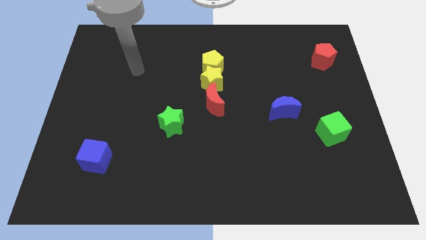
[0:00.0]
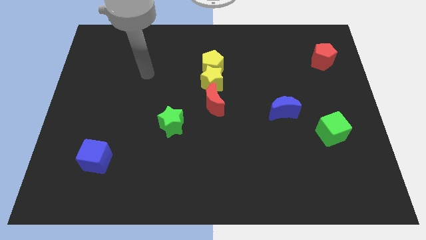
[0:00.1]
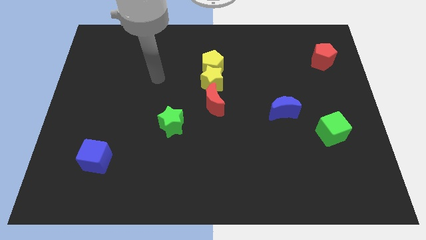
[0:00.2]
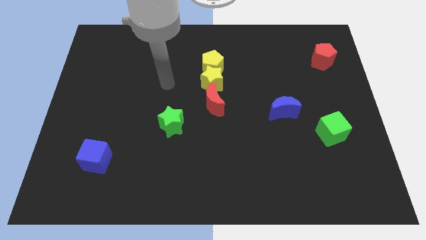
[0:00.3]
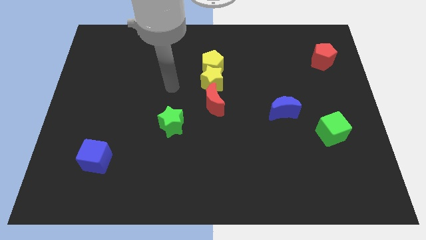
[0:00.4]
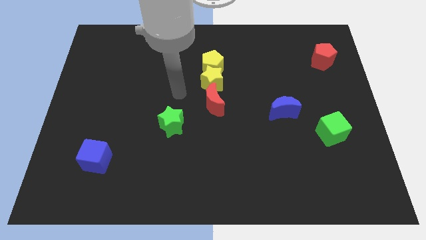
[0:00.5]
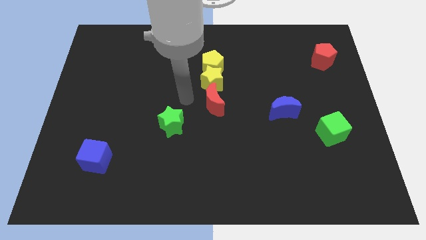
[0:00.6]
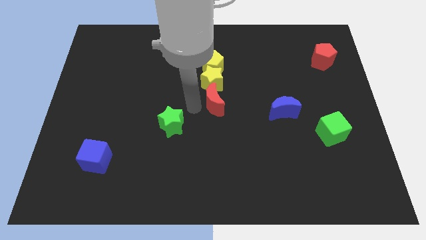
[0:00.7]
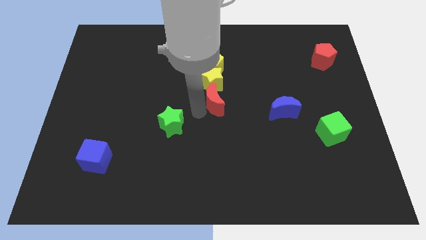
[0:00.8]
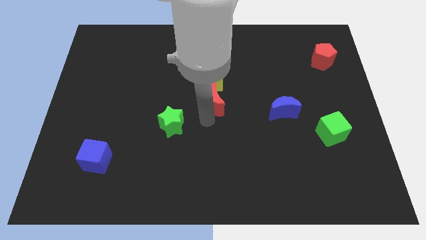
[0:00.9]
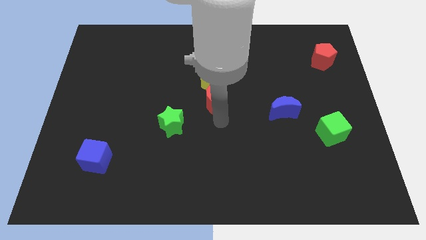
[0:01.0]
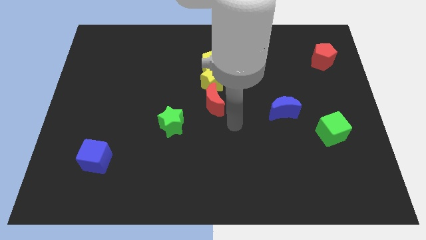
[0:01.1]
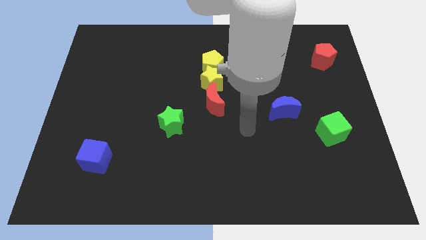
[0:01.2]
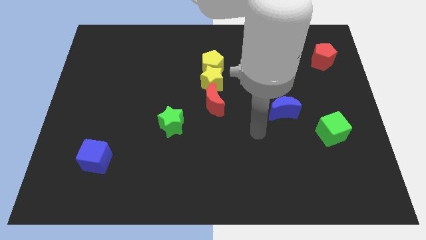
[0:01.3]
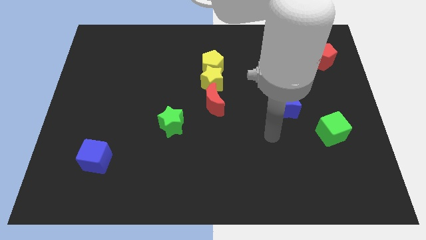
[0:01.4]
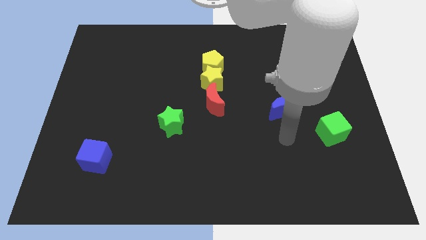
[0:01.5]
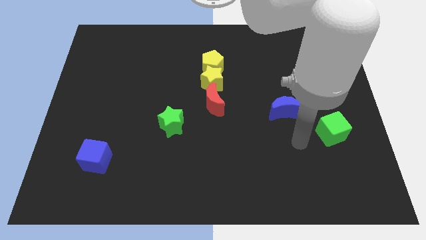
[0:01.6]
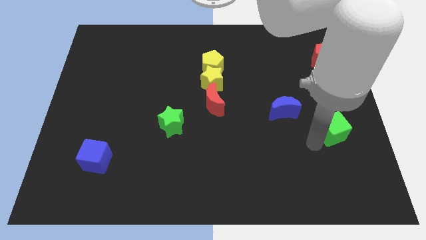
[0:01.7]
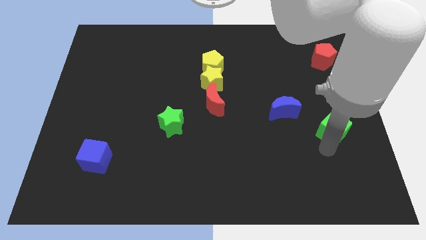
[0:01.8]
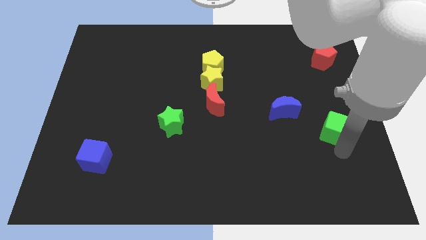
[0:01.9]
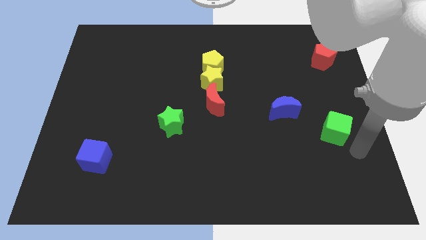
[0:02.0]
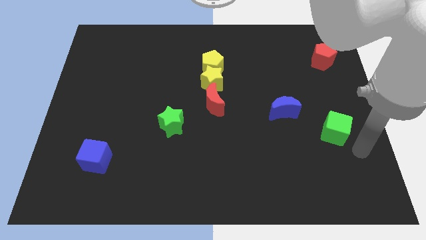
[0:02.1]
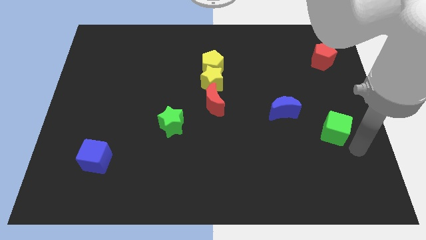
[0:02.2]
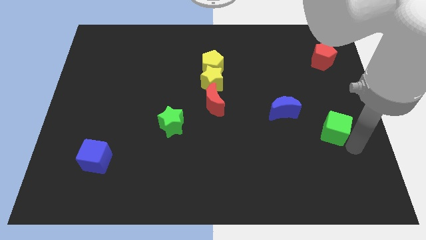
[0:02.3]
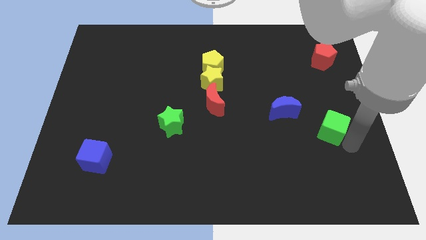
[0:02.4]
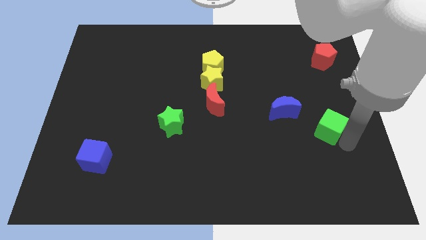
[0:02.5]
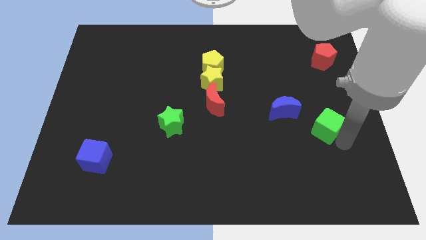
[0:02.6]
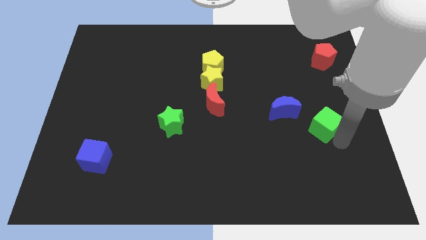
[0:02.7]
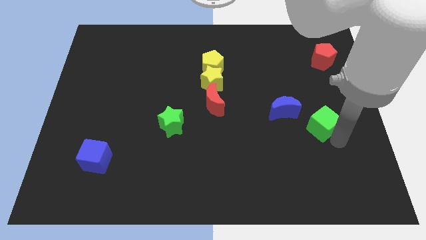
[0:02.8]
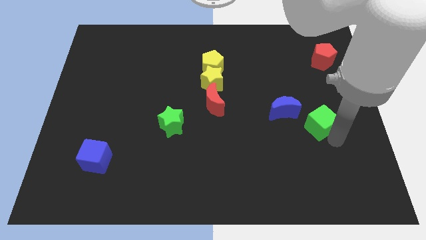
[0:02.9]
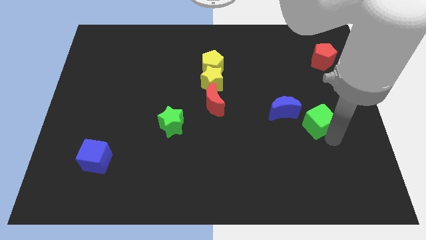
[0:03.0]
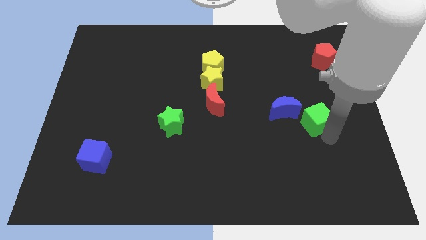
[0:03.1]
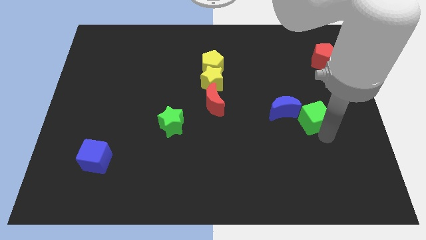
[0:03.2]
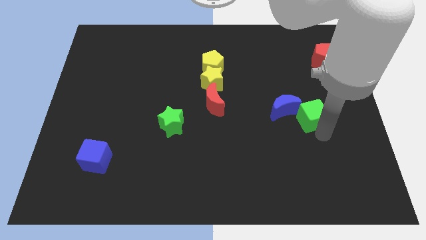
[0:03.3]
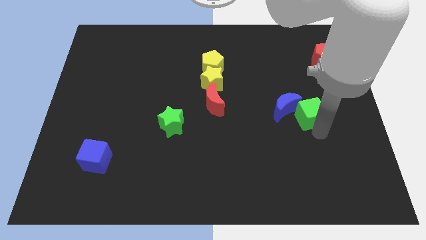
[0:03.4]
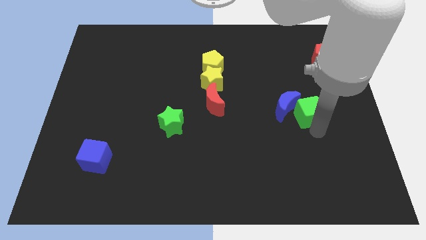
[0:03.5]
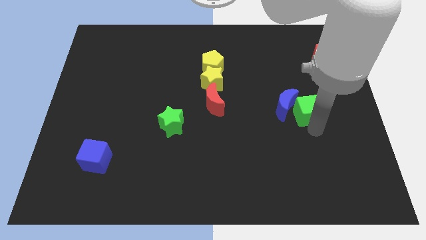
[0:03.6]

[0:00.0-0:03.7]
slightly move the green cube upwards and to the left

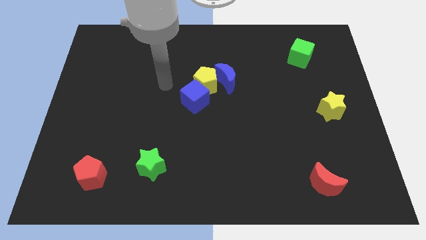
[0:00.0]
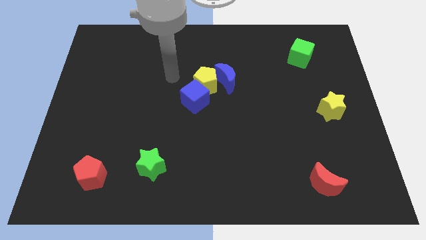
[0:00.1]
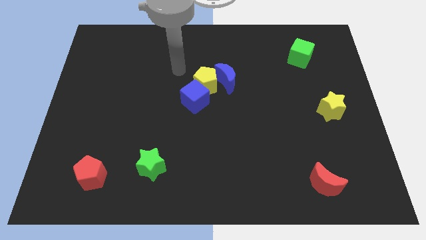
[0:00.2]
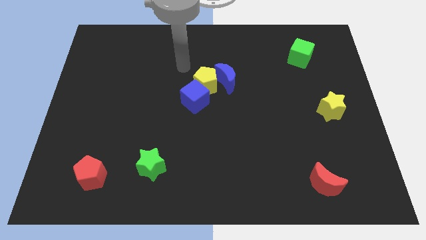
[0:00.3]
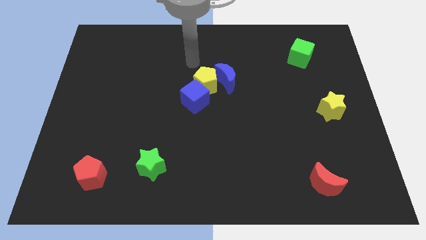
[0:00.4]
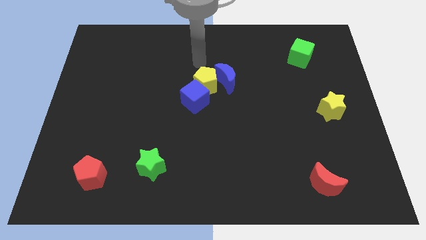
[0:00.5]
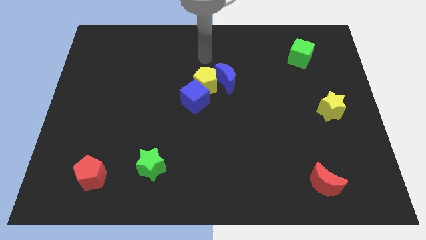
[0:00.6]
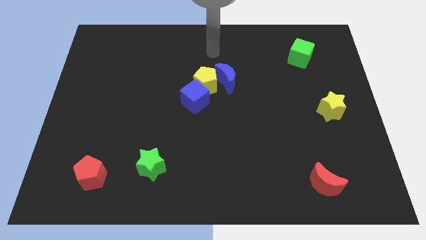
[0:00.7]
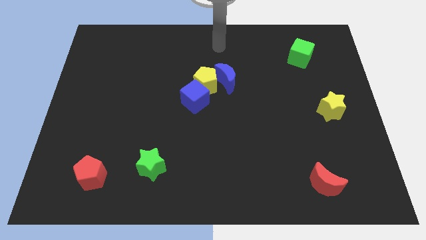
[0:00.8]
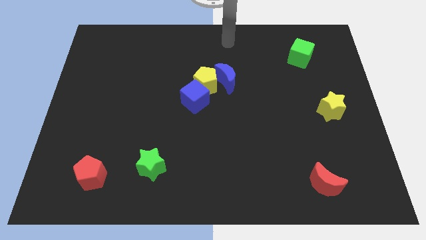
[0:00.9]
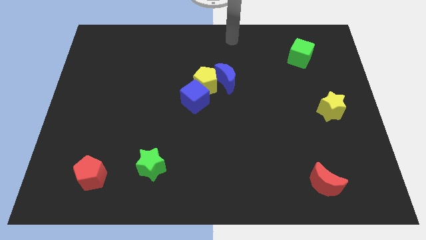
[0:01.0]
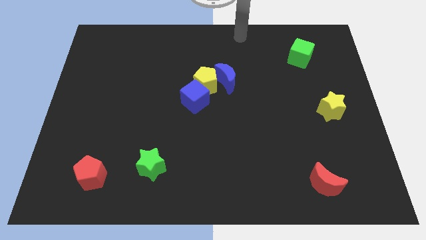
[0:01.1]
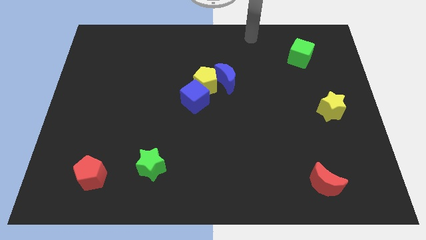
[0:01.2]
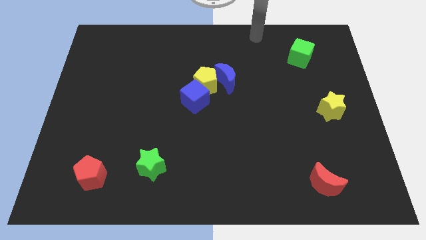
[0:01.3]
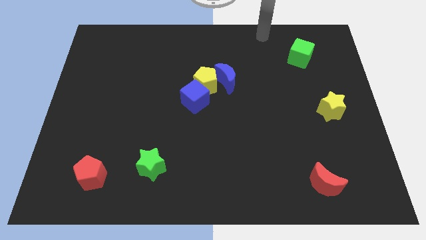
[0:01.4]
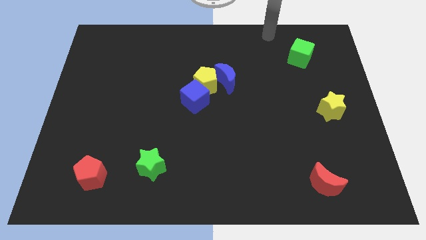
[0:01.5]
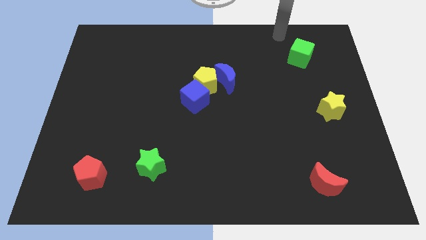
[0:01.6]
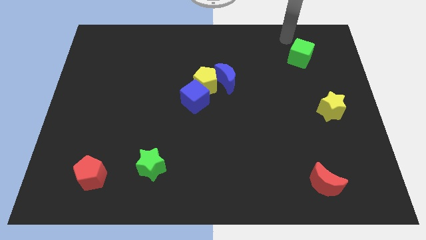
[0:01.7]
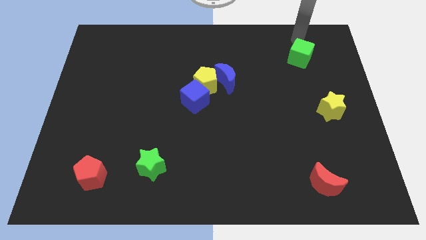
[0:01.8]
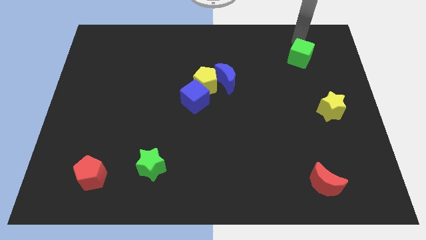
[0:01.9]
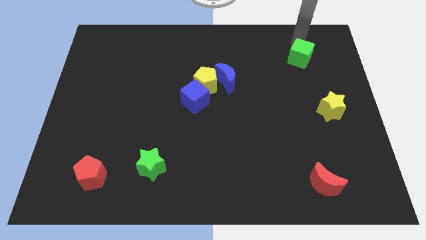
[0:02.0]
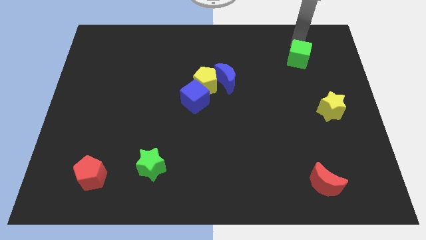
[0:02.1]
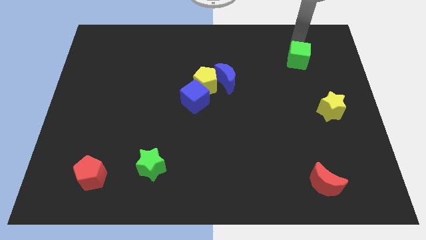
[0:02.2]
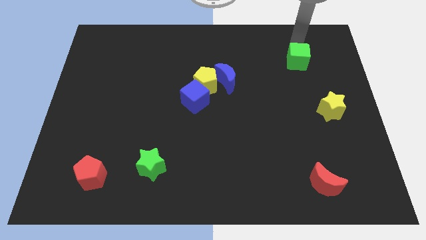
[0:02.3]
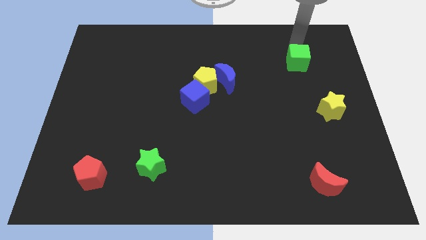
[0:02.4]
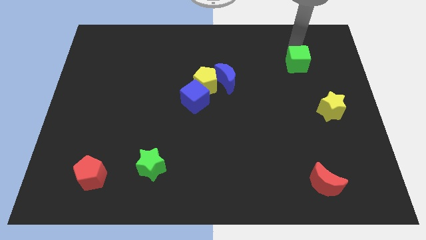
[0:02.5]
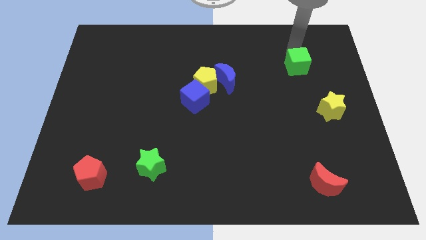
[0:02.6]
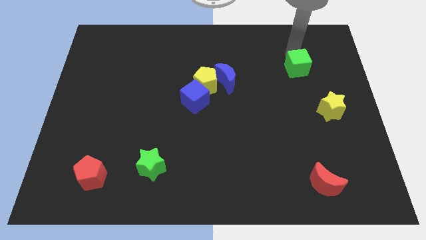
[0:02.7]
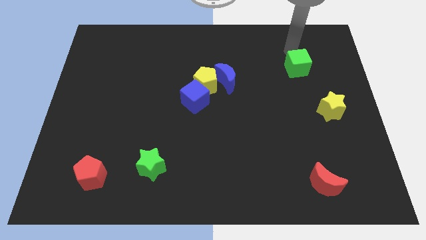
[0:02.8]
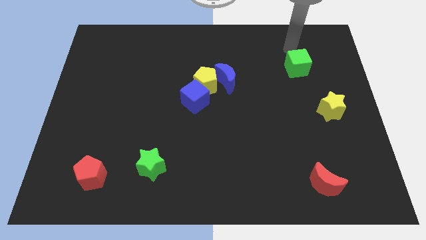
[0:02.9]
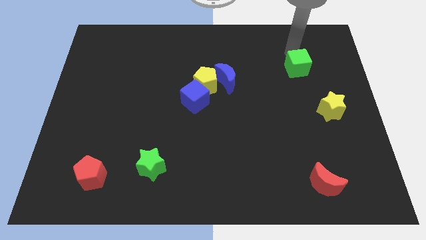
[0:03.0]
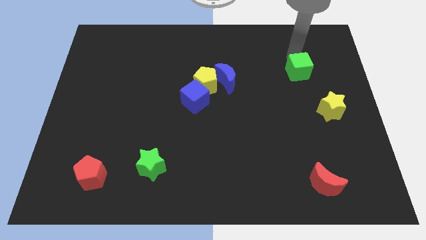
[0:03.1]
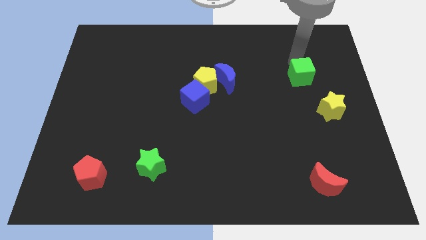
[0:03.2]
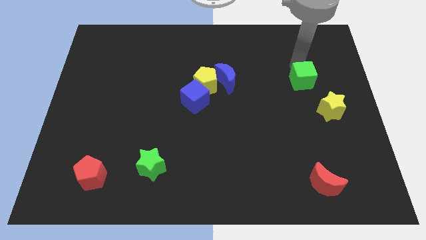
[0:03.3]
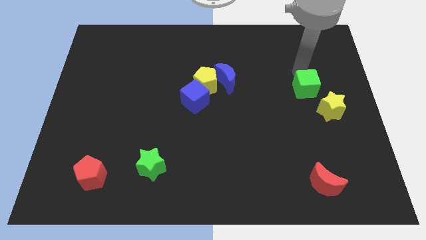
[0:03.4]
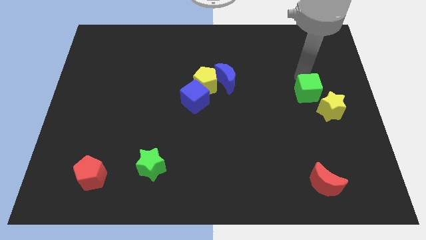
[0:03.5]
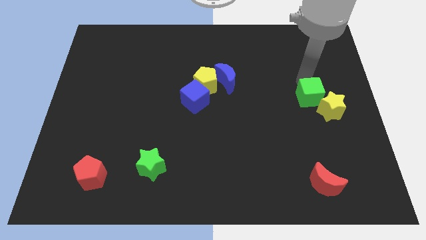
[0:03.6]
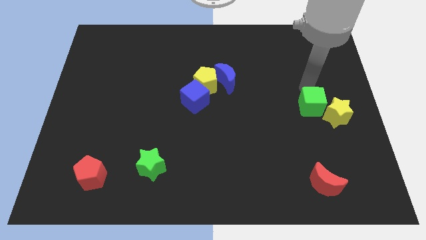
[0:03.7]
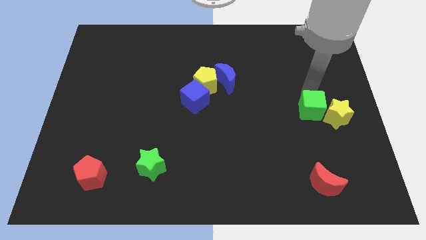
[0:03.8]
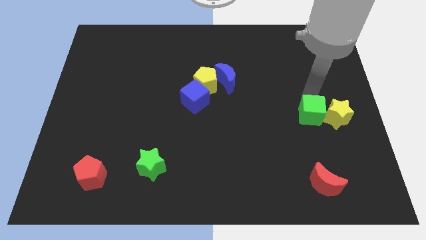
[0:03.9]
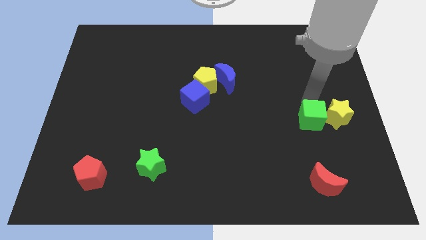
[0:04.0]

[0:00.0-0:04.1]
slide the green cube down

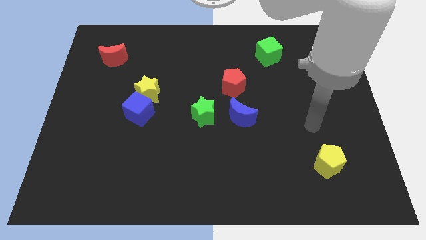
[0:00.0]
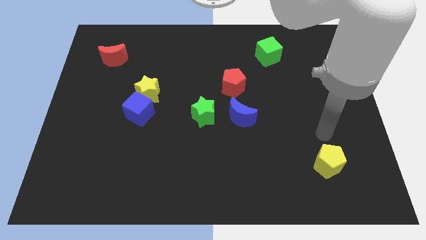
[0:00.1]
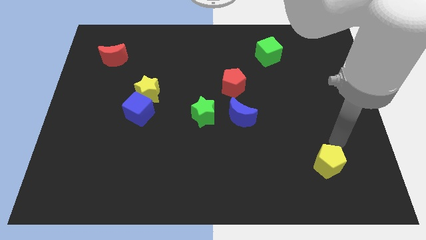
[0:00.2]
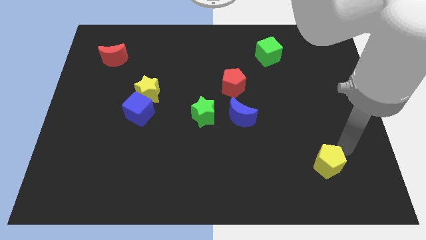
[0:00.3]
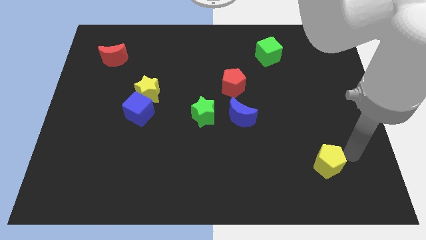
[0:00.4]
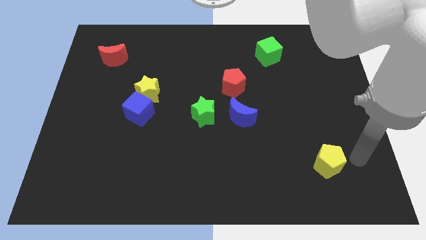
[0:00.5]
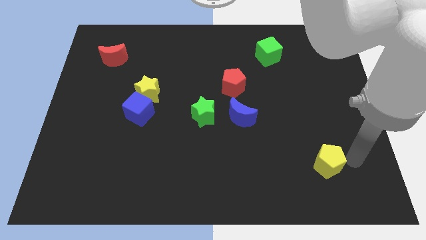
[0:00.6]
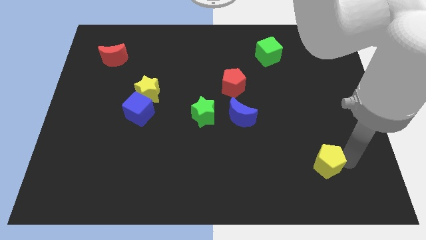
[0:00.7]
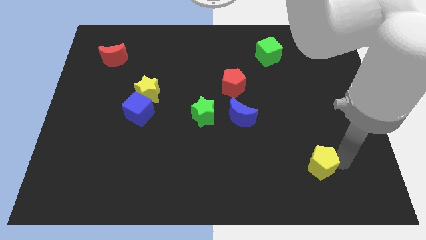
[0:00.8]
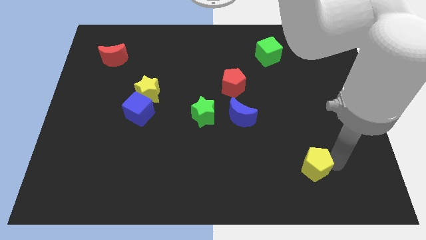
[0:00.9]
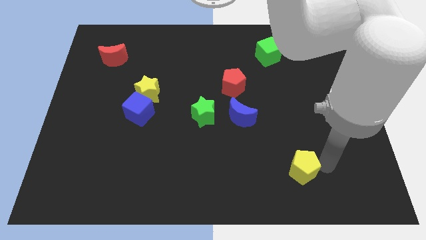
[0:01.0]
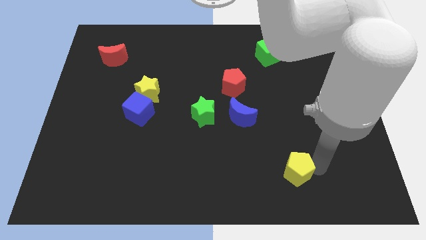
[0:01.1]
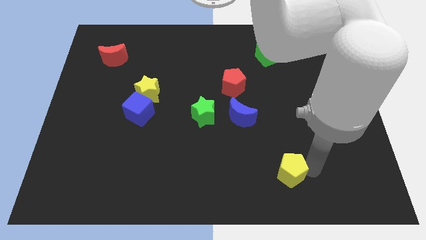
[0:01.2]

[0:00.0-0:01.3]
push the yellow pentagon somewhat to the left
